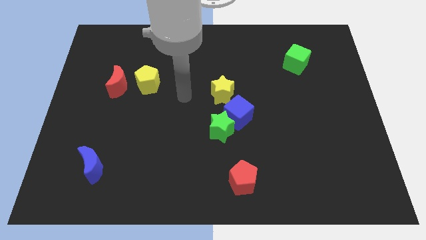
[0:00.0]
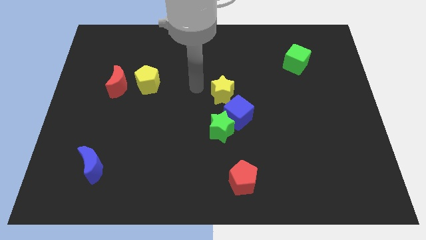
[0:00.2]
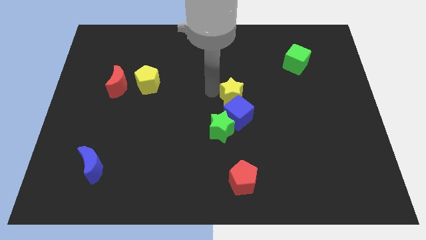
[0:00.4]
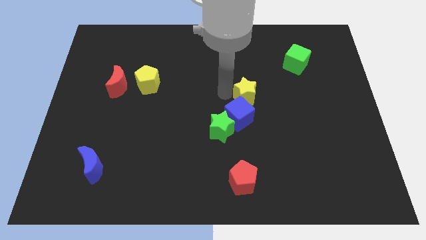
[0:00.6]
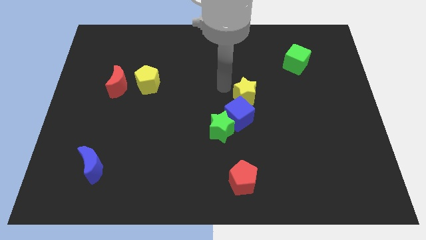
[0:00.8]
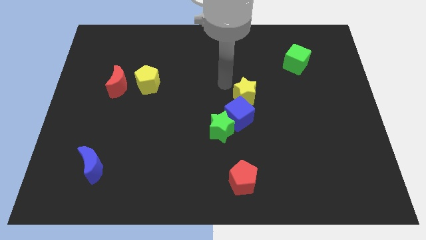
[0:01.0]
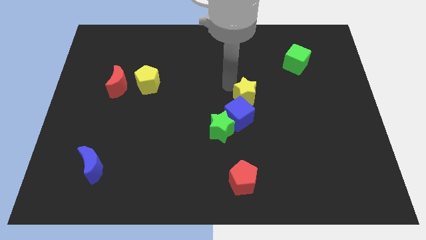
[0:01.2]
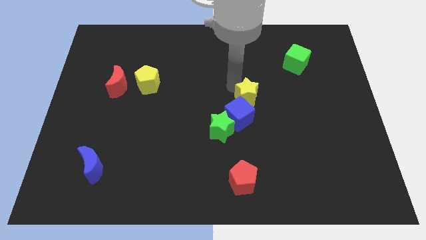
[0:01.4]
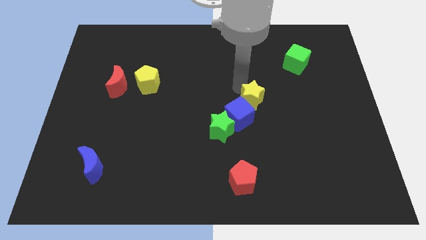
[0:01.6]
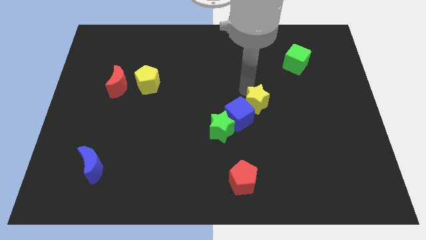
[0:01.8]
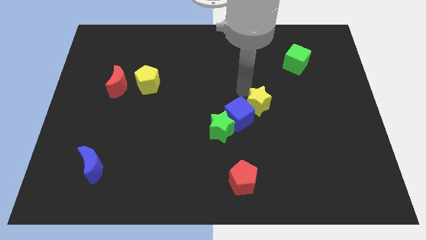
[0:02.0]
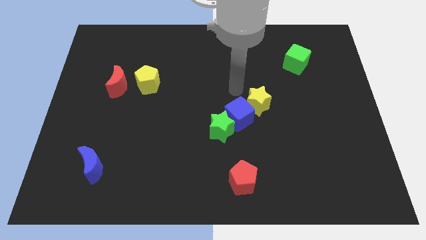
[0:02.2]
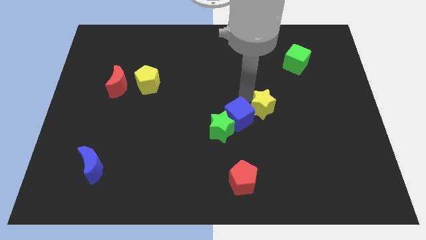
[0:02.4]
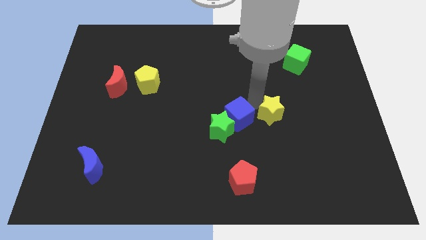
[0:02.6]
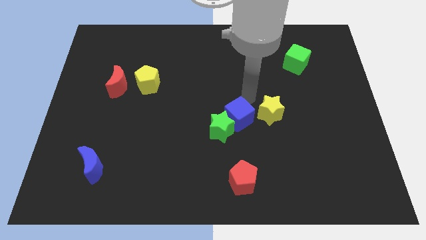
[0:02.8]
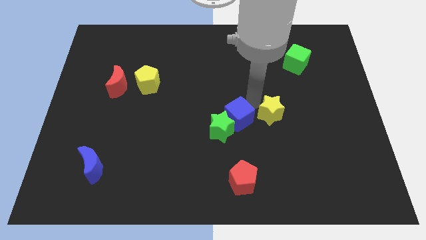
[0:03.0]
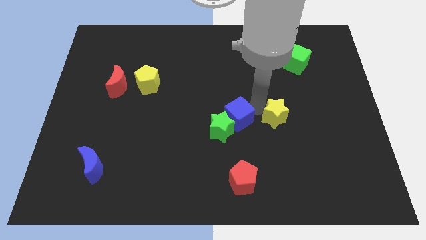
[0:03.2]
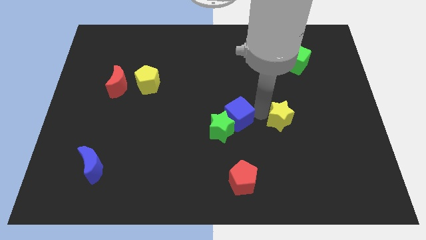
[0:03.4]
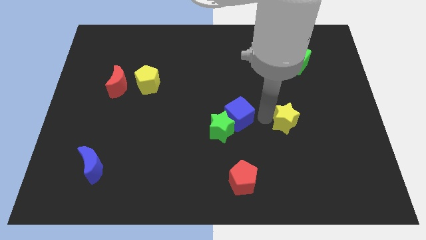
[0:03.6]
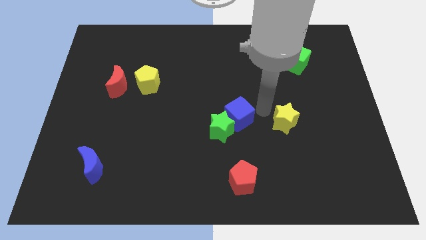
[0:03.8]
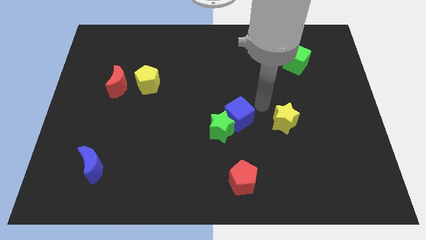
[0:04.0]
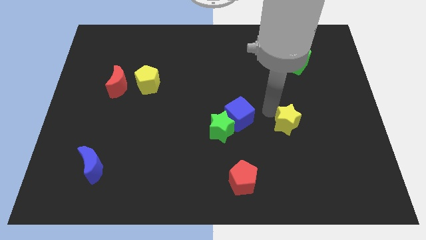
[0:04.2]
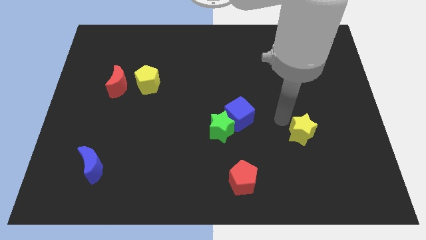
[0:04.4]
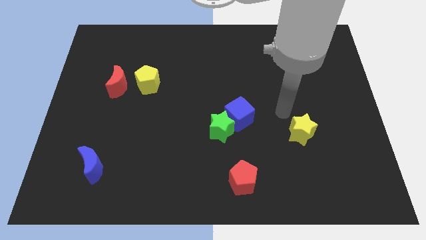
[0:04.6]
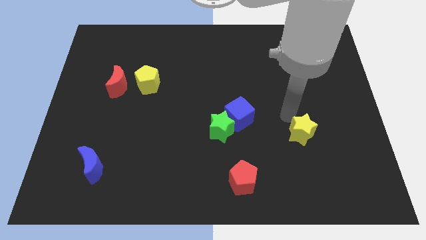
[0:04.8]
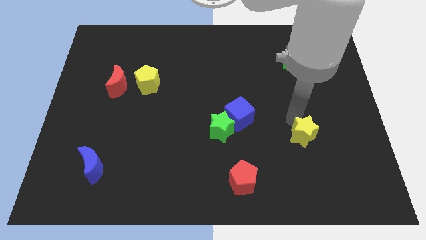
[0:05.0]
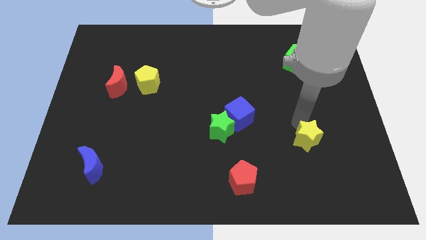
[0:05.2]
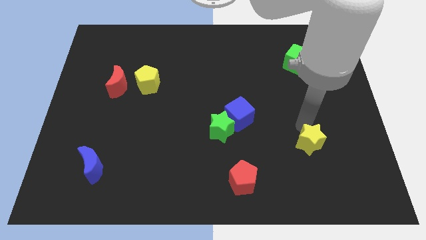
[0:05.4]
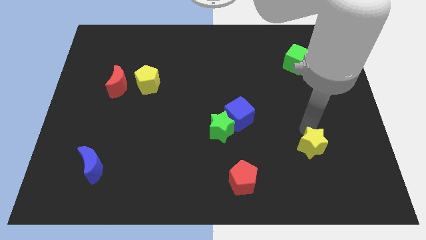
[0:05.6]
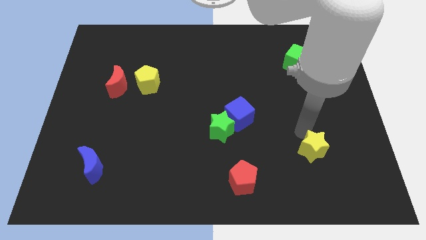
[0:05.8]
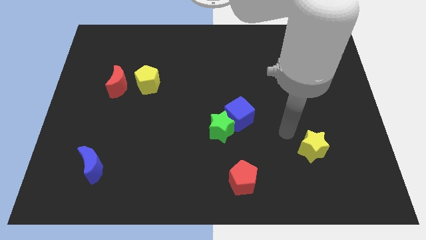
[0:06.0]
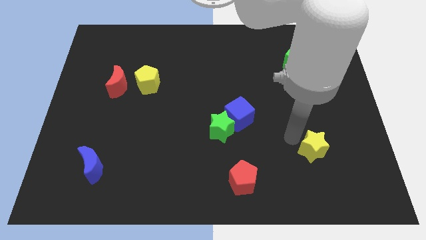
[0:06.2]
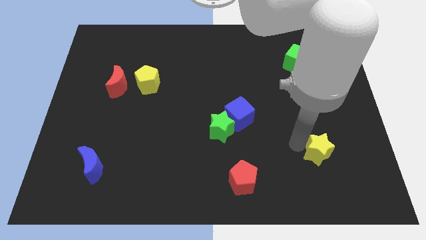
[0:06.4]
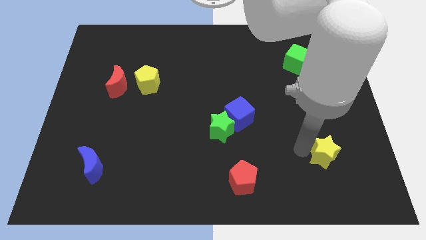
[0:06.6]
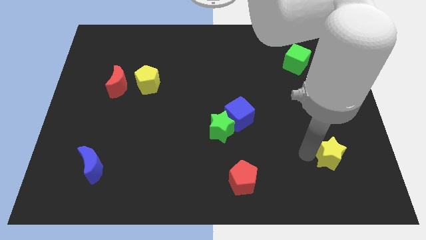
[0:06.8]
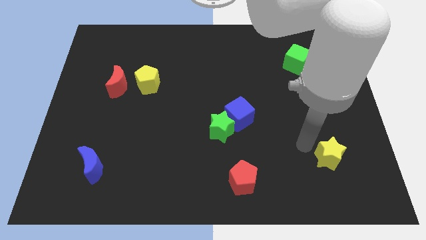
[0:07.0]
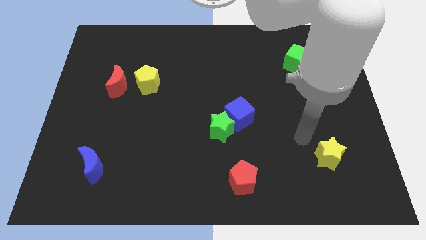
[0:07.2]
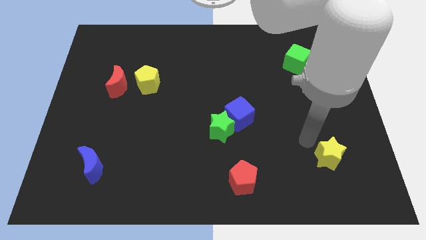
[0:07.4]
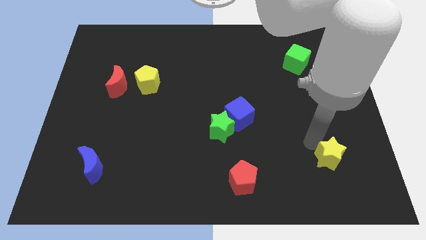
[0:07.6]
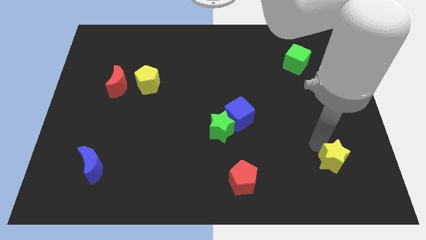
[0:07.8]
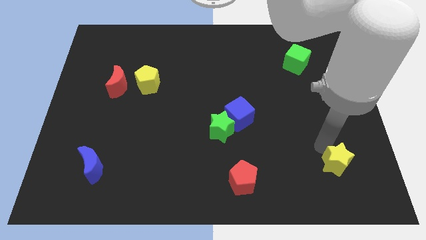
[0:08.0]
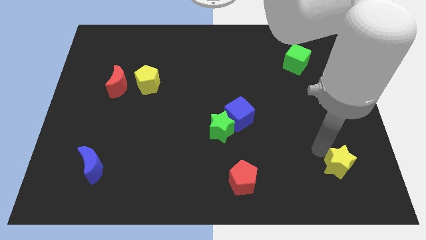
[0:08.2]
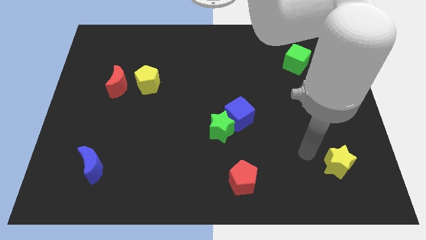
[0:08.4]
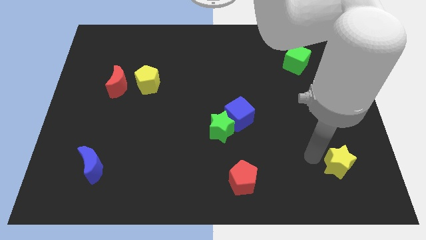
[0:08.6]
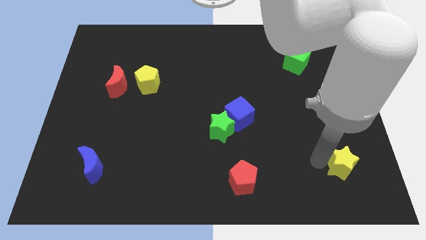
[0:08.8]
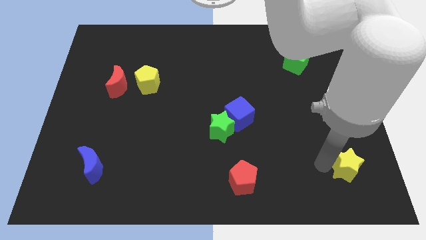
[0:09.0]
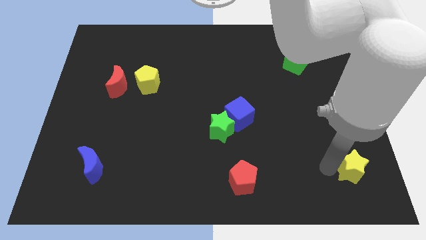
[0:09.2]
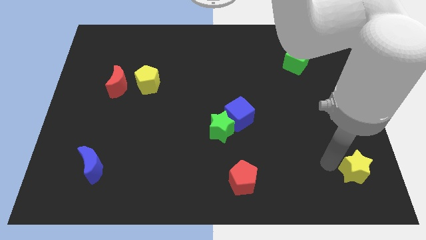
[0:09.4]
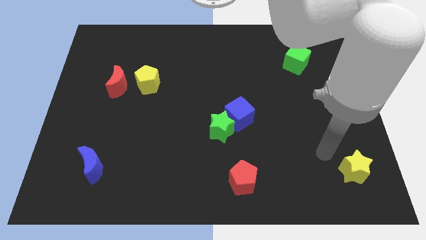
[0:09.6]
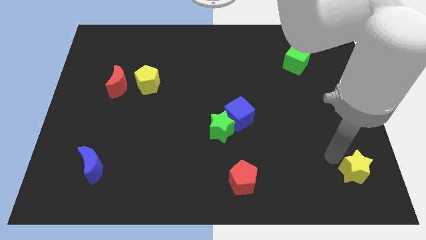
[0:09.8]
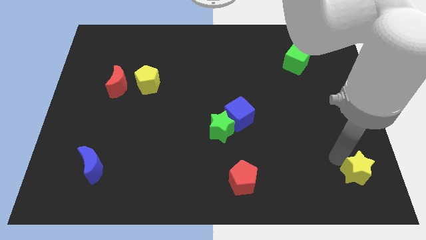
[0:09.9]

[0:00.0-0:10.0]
push the yellow star to the bottom right

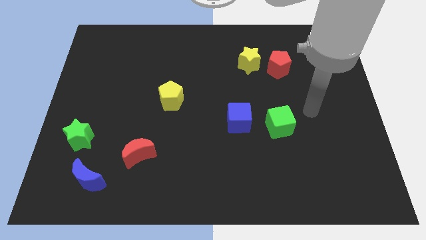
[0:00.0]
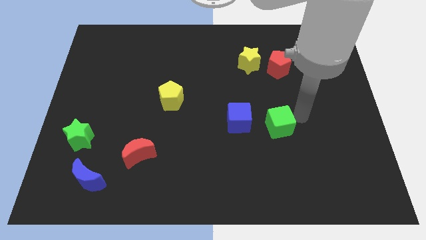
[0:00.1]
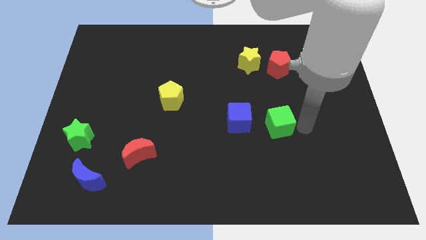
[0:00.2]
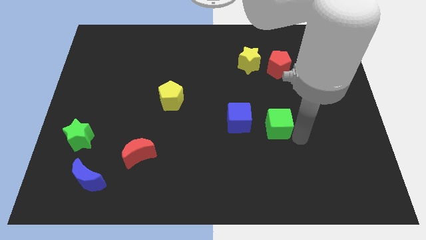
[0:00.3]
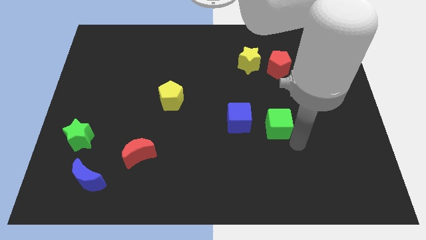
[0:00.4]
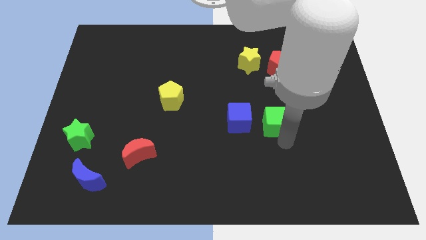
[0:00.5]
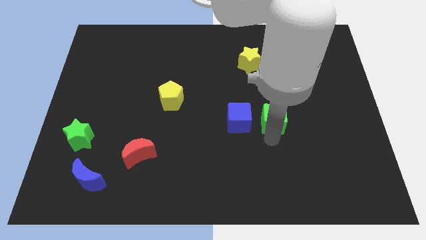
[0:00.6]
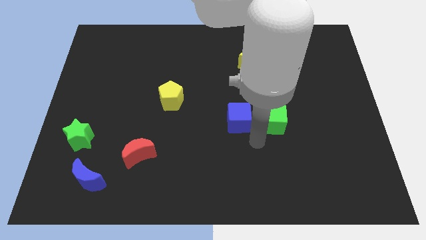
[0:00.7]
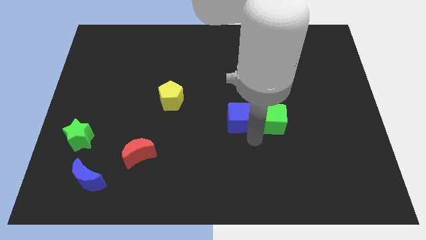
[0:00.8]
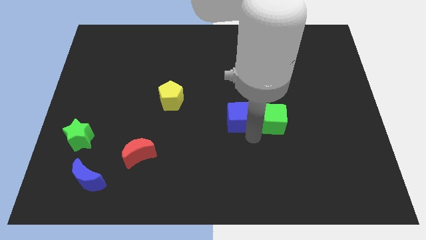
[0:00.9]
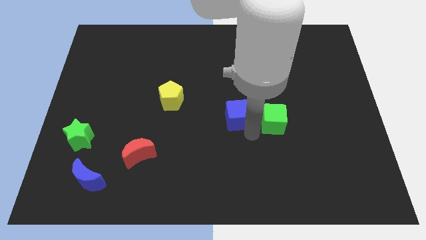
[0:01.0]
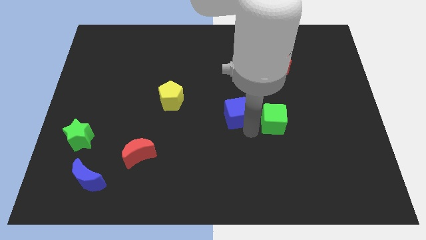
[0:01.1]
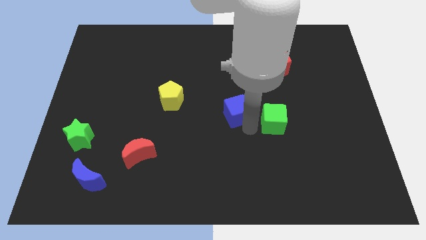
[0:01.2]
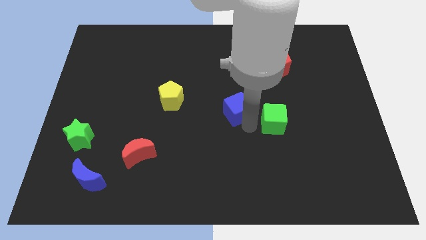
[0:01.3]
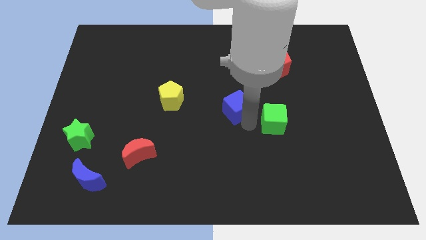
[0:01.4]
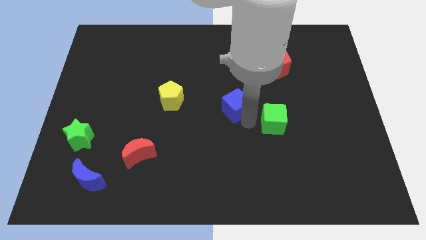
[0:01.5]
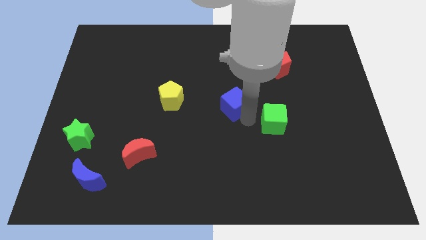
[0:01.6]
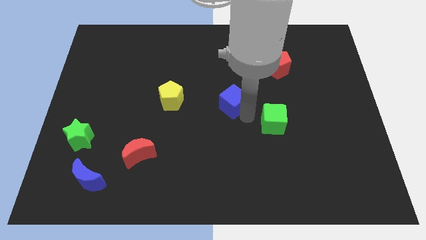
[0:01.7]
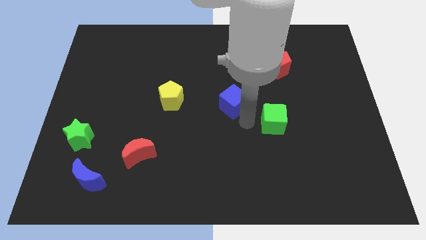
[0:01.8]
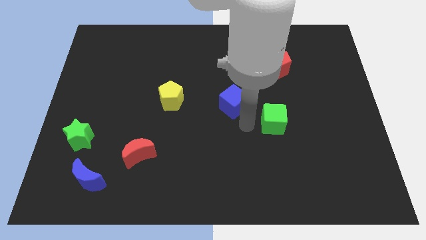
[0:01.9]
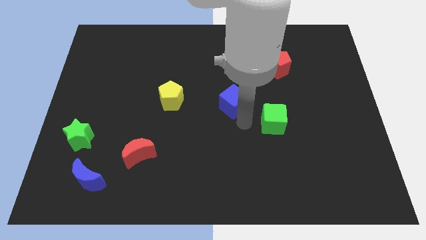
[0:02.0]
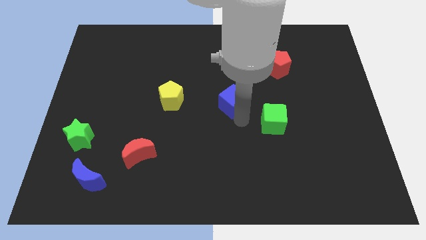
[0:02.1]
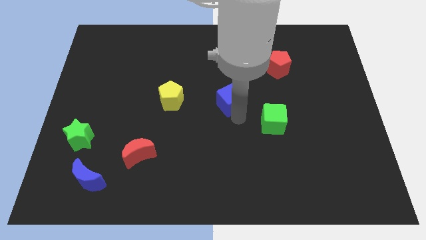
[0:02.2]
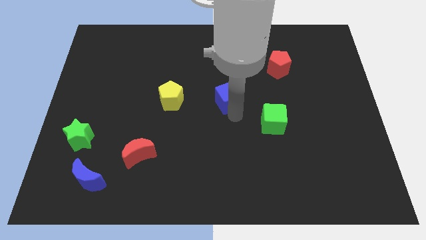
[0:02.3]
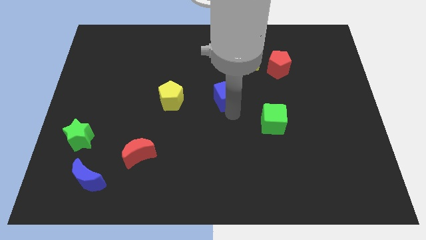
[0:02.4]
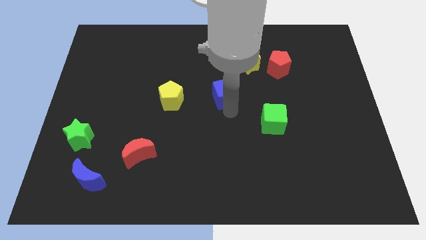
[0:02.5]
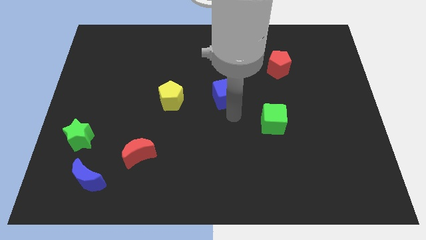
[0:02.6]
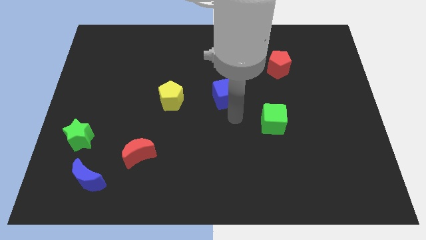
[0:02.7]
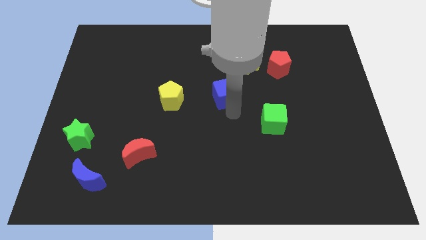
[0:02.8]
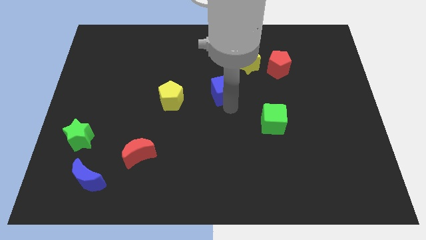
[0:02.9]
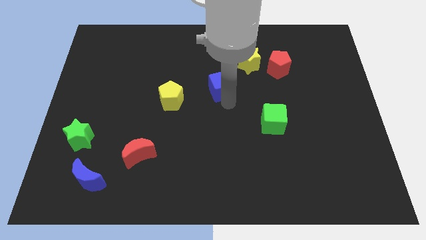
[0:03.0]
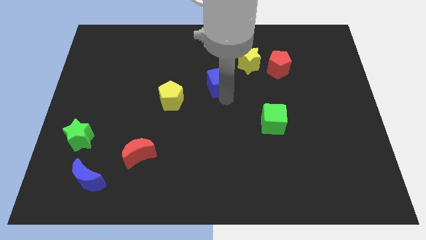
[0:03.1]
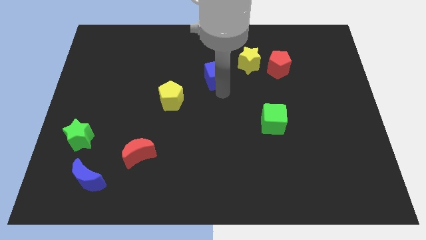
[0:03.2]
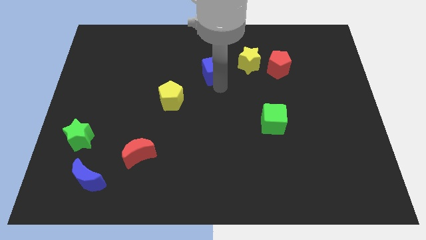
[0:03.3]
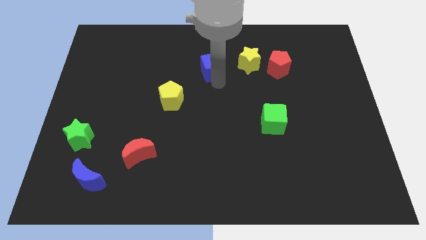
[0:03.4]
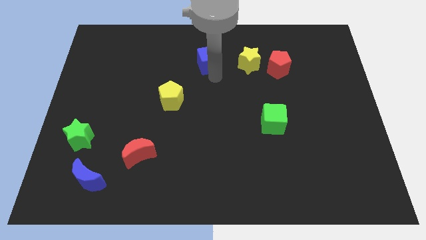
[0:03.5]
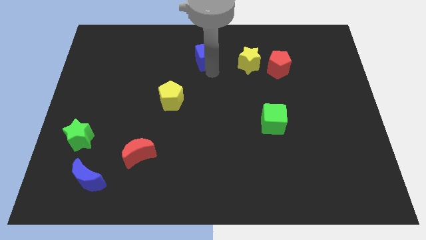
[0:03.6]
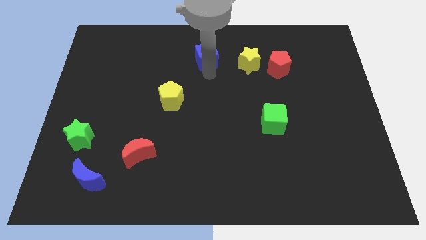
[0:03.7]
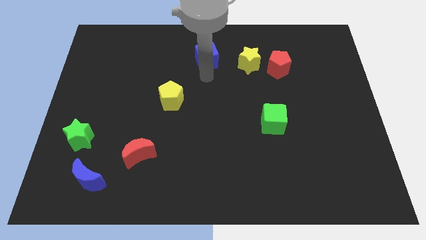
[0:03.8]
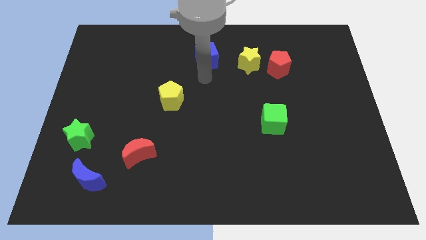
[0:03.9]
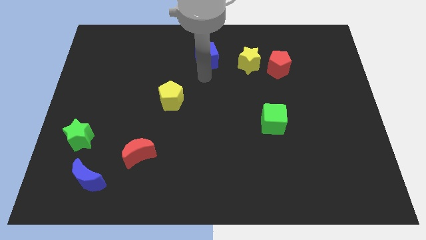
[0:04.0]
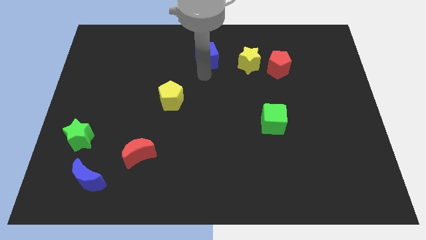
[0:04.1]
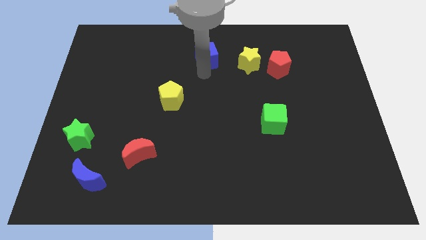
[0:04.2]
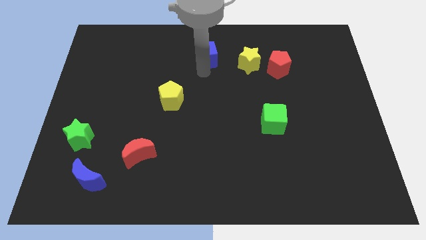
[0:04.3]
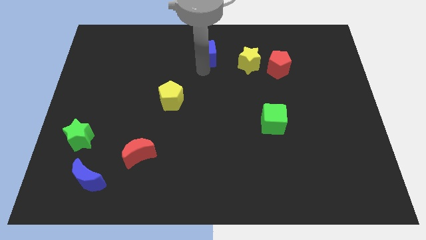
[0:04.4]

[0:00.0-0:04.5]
put the blue cube to the top side
